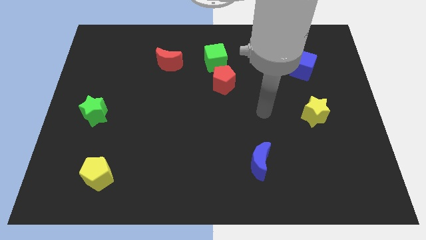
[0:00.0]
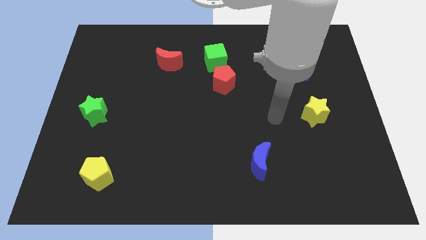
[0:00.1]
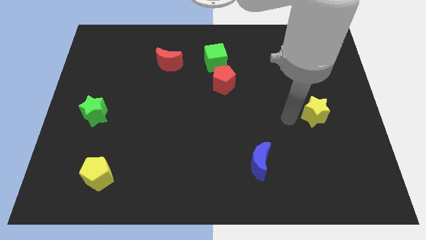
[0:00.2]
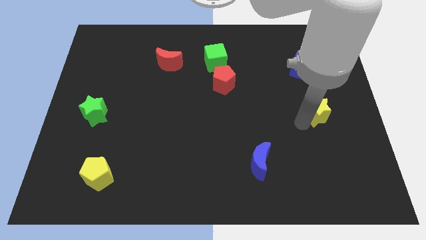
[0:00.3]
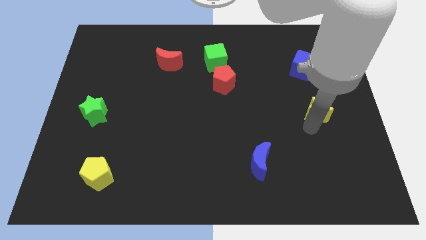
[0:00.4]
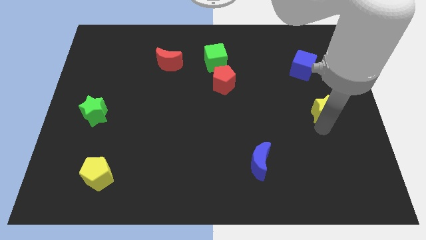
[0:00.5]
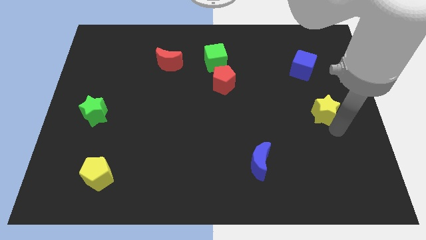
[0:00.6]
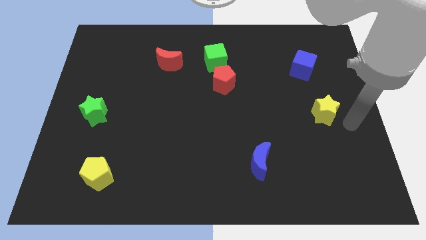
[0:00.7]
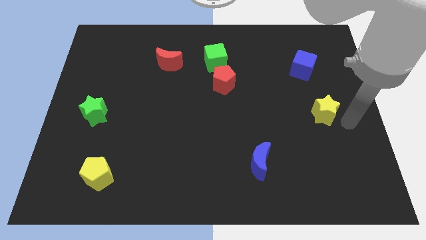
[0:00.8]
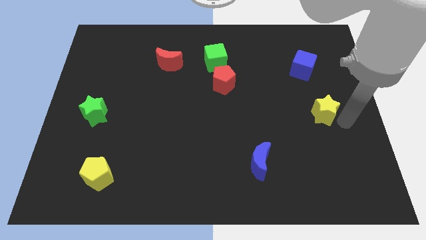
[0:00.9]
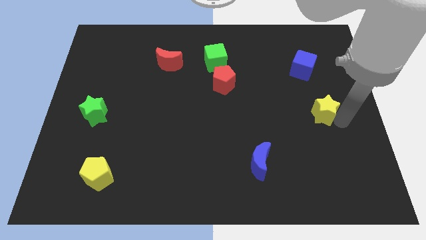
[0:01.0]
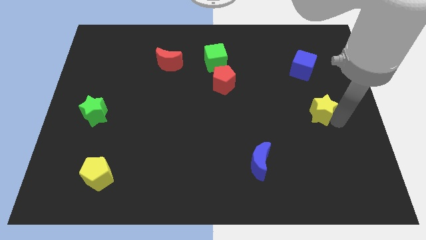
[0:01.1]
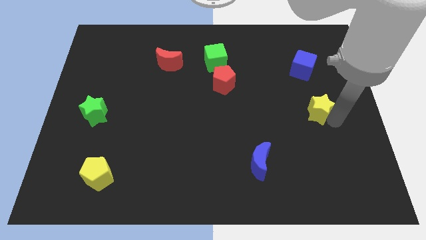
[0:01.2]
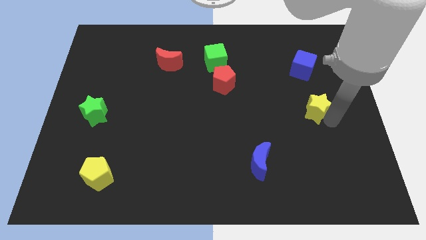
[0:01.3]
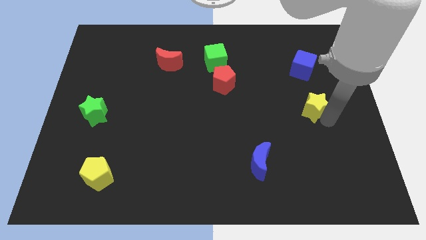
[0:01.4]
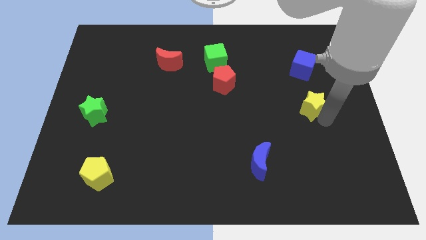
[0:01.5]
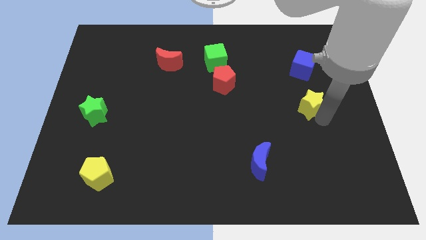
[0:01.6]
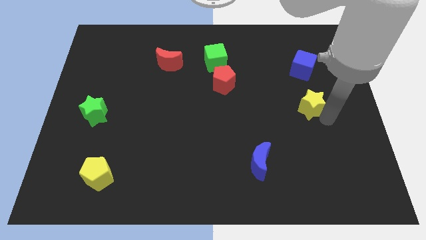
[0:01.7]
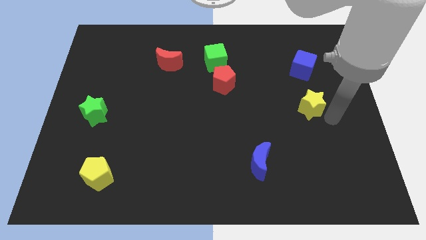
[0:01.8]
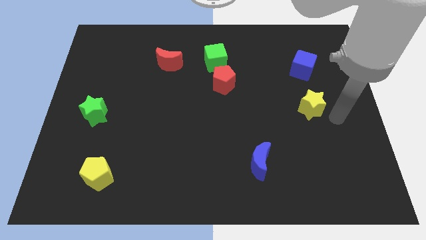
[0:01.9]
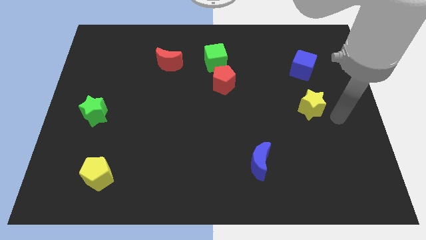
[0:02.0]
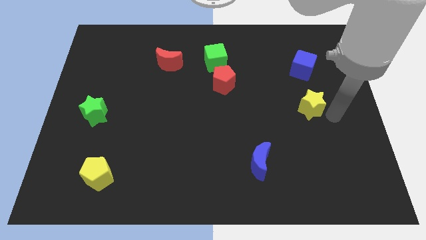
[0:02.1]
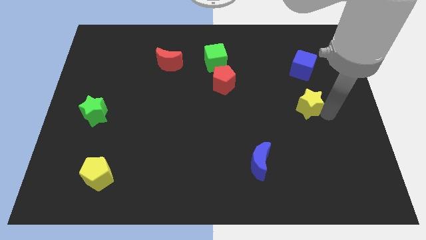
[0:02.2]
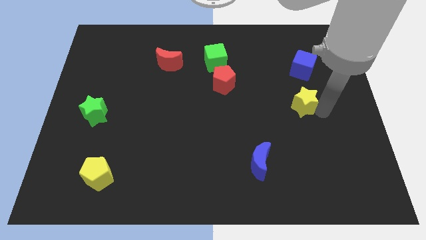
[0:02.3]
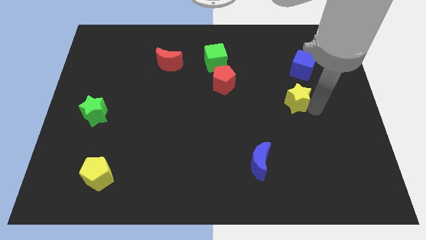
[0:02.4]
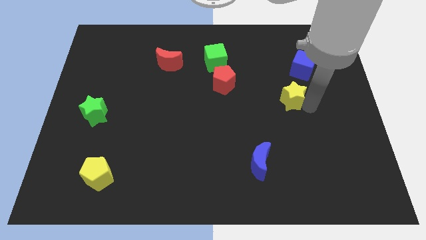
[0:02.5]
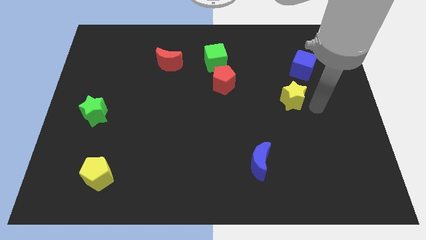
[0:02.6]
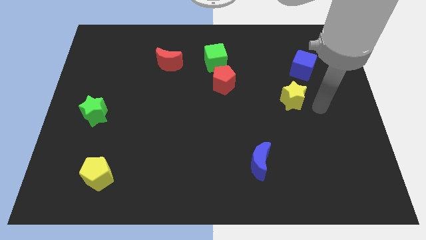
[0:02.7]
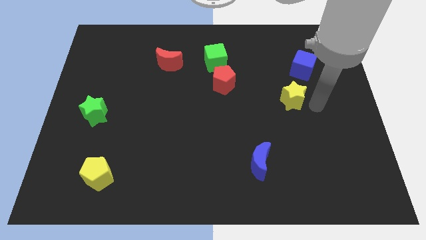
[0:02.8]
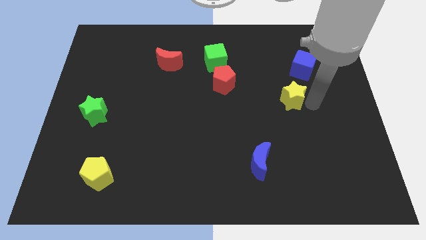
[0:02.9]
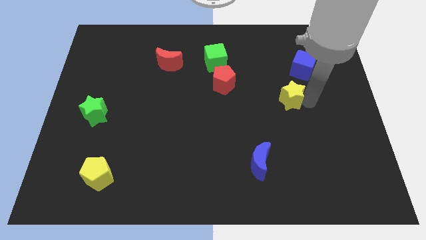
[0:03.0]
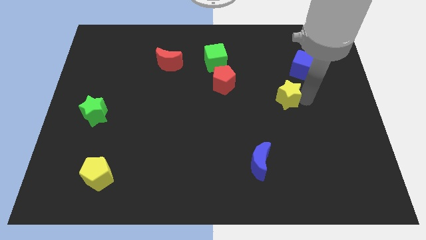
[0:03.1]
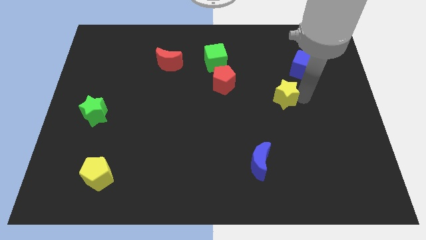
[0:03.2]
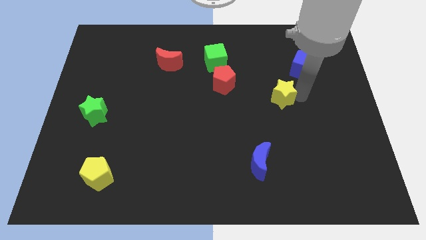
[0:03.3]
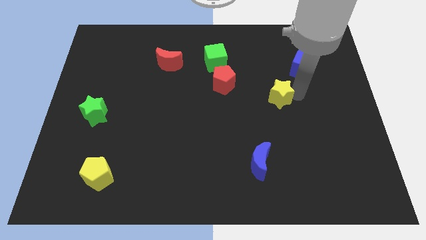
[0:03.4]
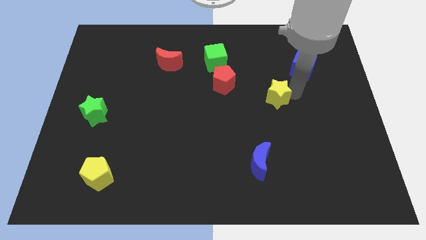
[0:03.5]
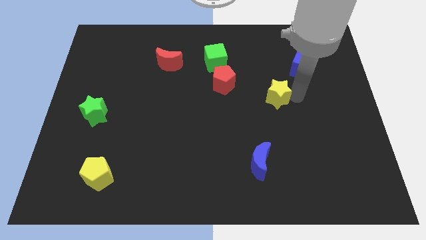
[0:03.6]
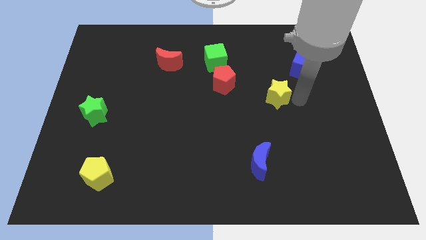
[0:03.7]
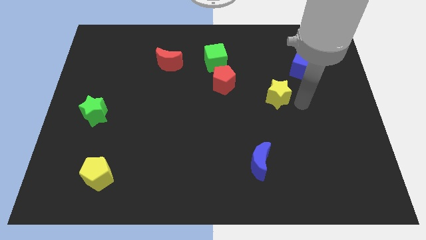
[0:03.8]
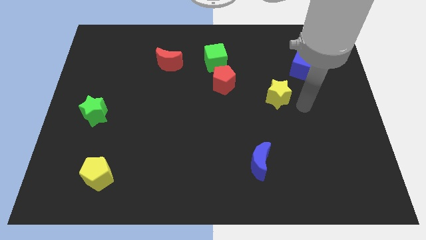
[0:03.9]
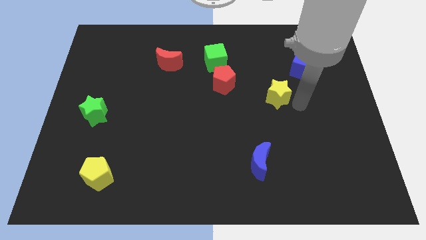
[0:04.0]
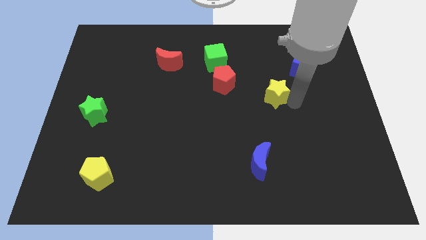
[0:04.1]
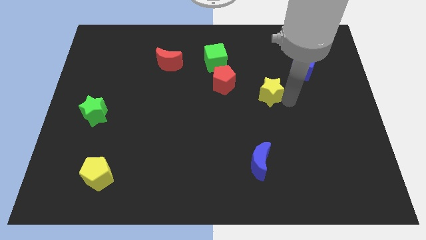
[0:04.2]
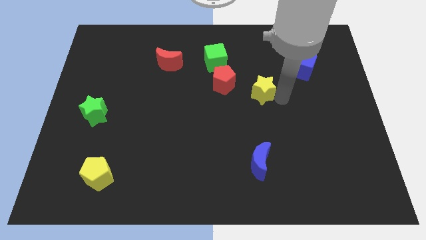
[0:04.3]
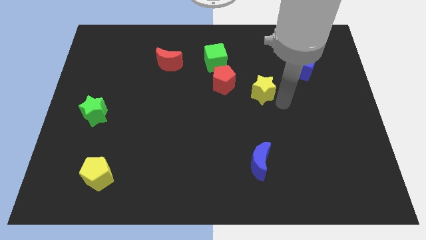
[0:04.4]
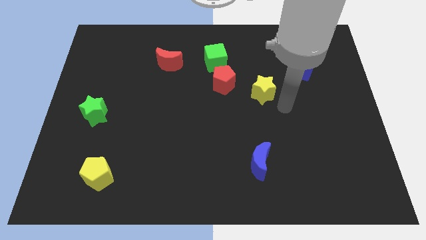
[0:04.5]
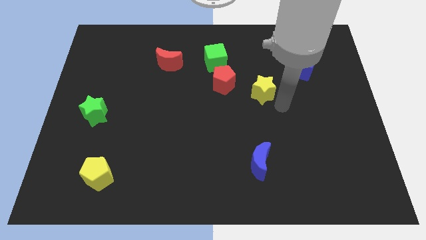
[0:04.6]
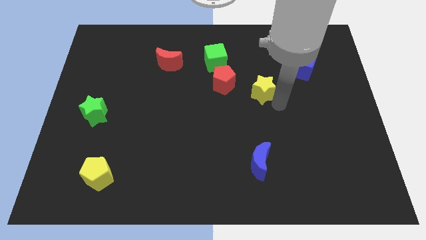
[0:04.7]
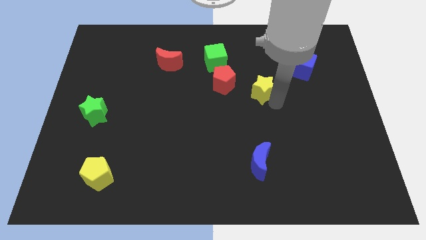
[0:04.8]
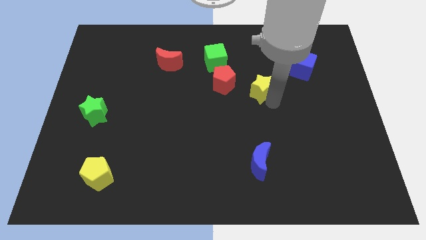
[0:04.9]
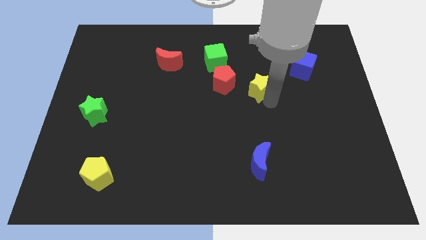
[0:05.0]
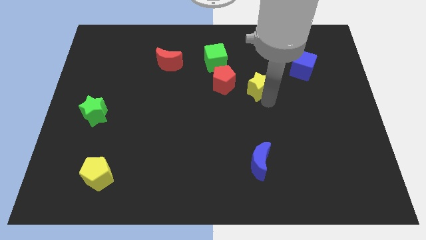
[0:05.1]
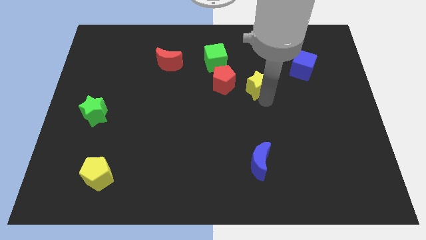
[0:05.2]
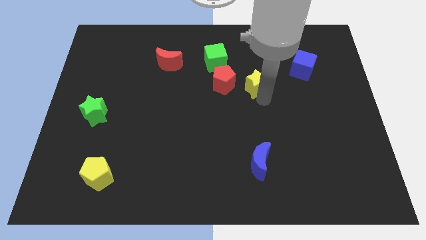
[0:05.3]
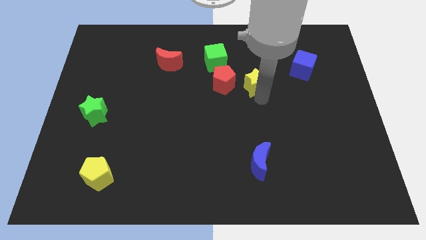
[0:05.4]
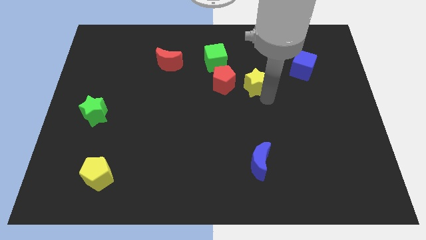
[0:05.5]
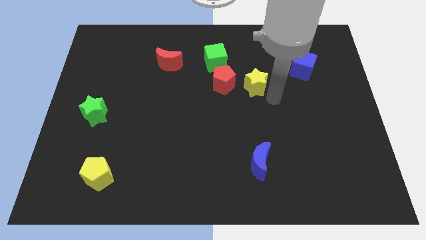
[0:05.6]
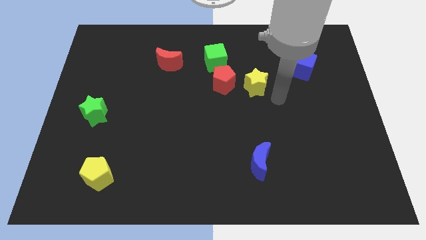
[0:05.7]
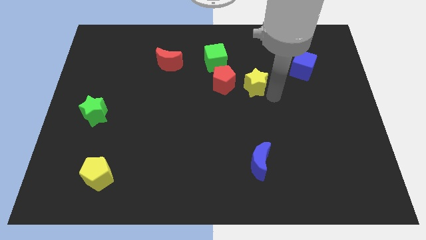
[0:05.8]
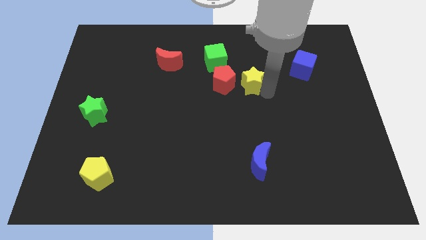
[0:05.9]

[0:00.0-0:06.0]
slide the yellow star diagonally down and to the right of the green cube

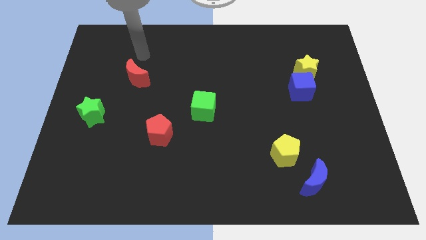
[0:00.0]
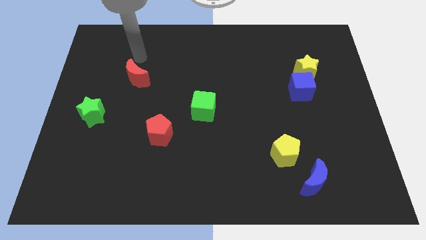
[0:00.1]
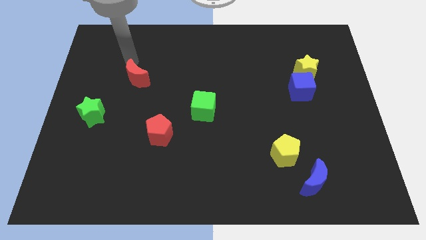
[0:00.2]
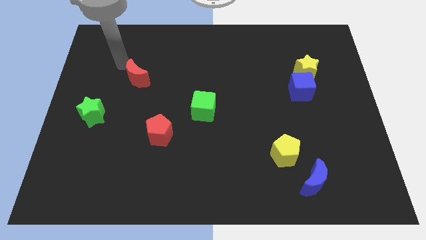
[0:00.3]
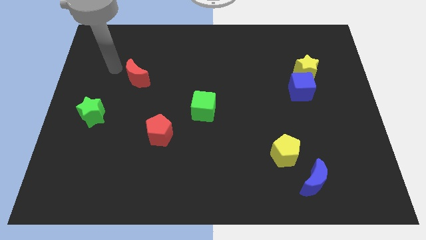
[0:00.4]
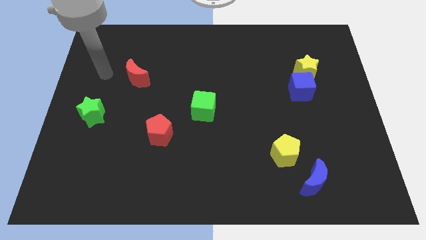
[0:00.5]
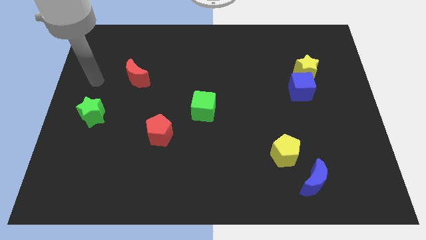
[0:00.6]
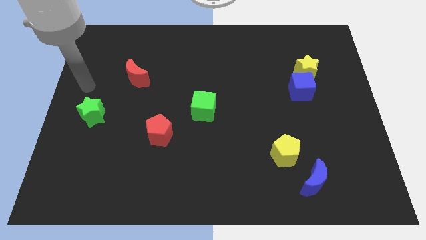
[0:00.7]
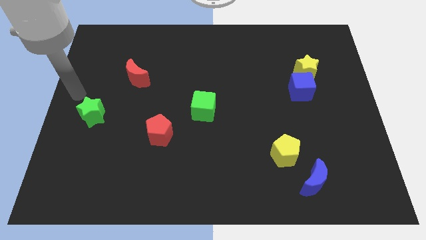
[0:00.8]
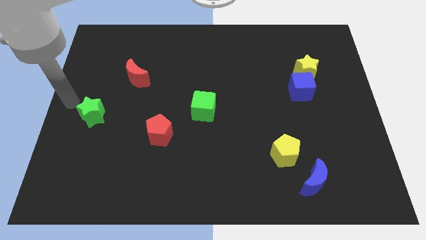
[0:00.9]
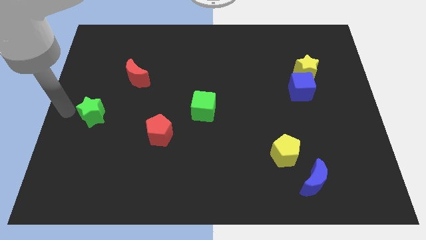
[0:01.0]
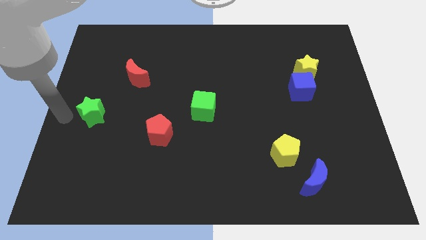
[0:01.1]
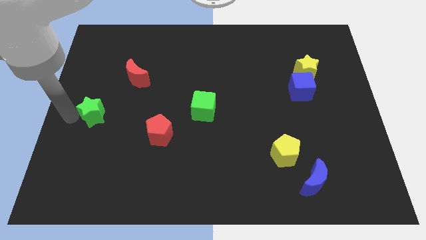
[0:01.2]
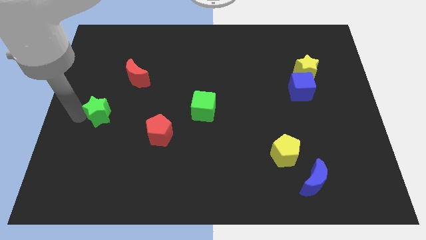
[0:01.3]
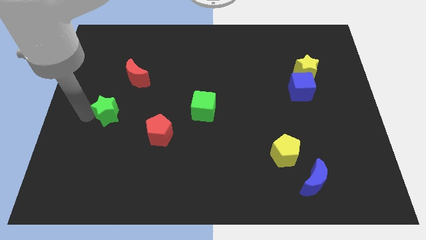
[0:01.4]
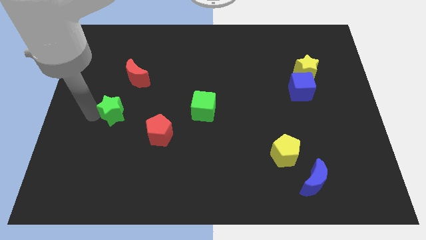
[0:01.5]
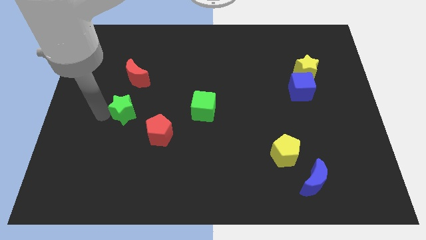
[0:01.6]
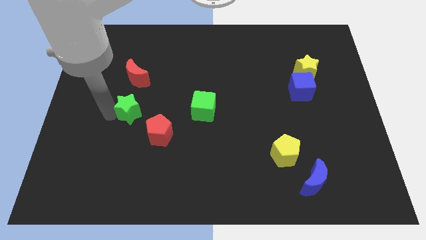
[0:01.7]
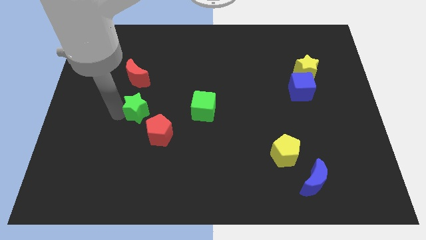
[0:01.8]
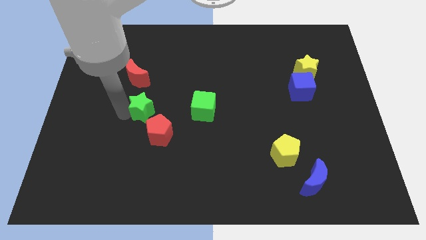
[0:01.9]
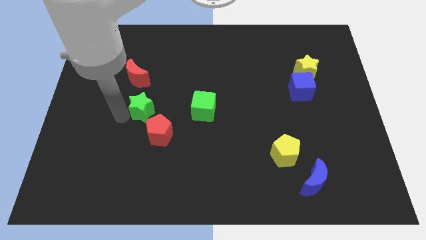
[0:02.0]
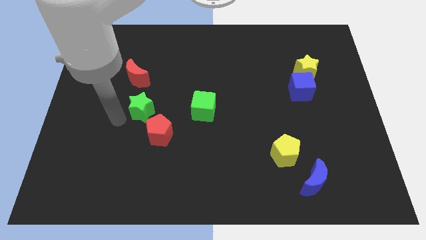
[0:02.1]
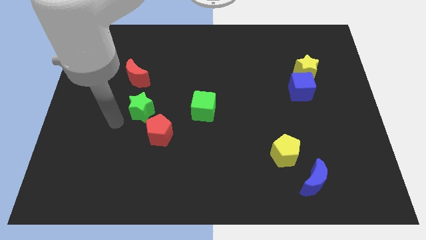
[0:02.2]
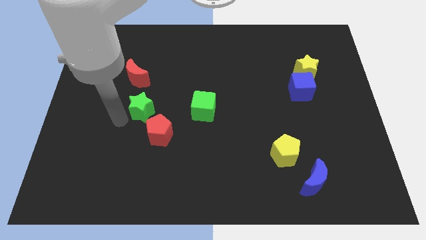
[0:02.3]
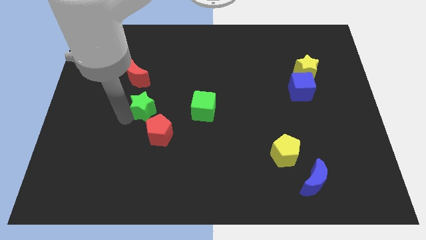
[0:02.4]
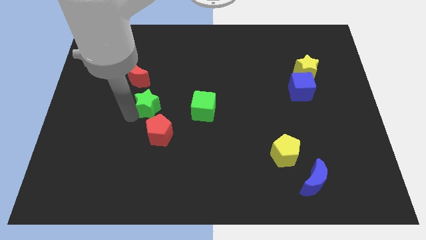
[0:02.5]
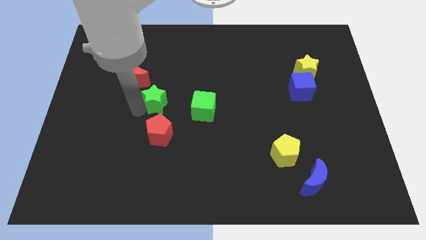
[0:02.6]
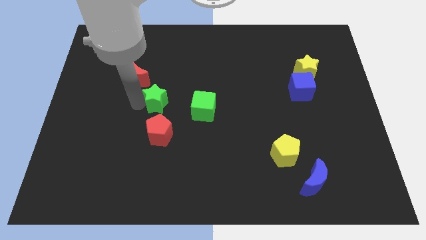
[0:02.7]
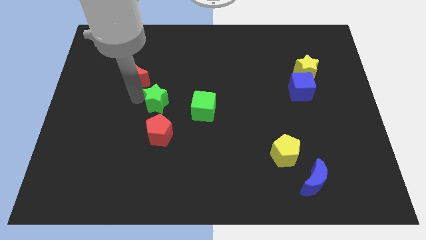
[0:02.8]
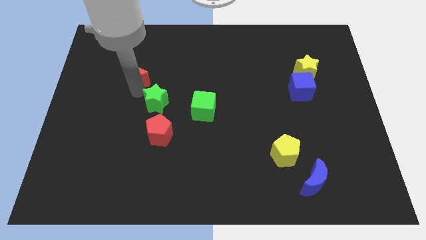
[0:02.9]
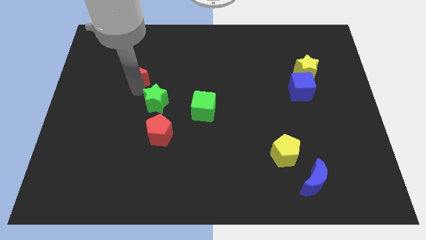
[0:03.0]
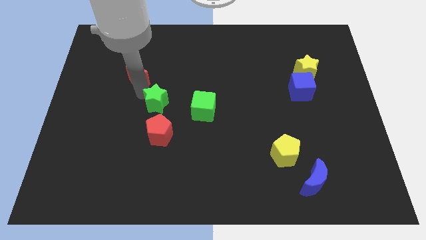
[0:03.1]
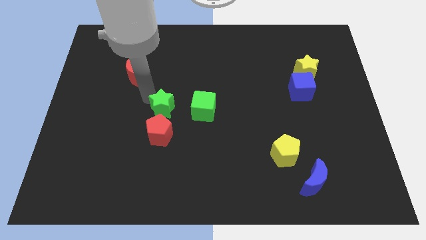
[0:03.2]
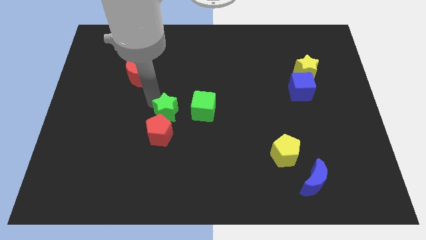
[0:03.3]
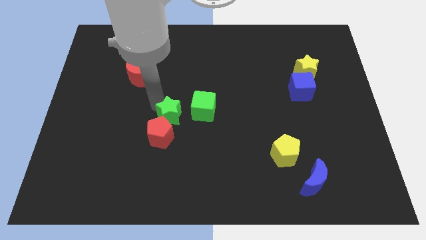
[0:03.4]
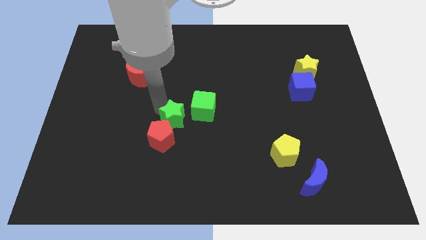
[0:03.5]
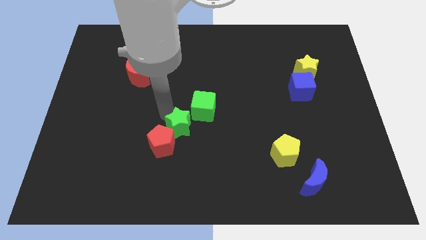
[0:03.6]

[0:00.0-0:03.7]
move the green star to the right side of the red pentagon
